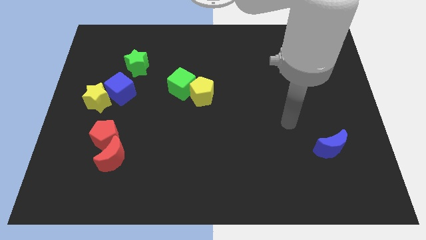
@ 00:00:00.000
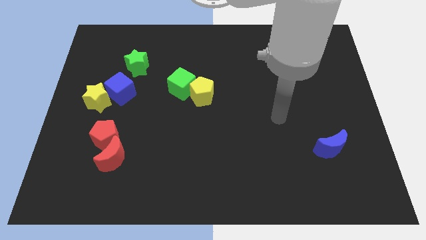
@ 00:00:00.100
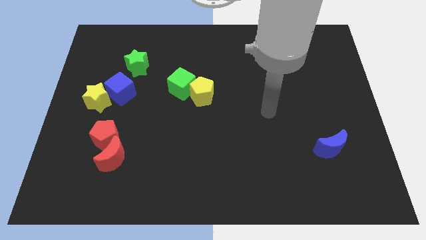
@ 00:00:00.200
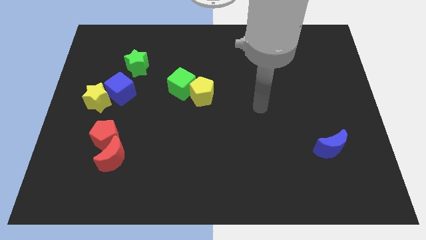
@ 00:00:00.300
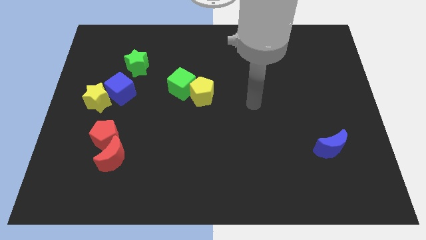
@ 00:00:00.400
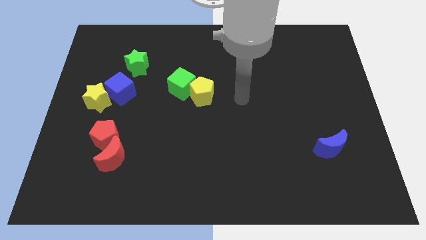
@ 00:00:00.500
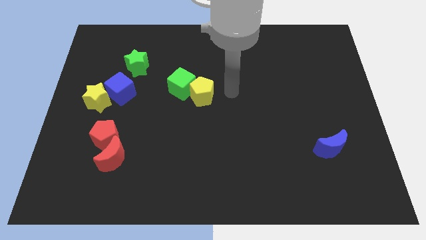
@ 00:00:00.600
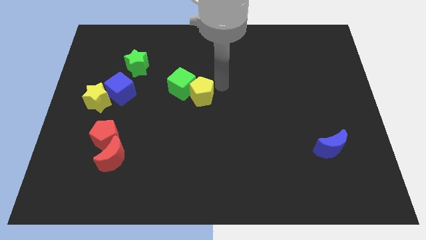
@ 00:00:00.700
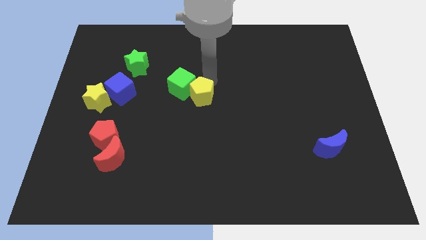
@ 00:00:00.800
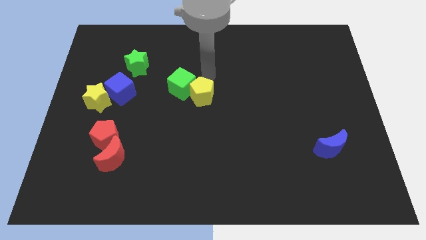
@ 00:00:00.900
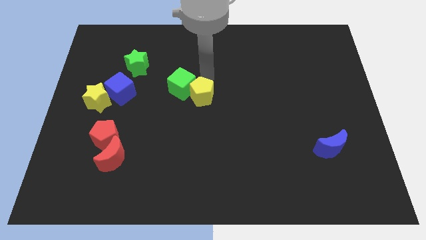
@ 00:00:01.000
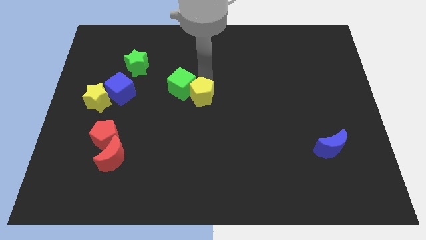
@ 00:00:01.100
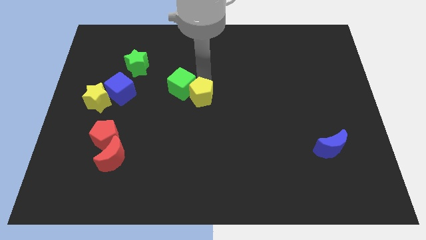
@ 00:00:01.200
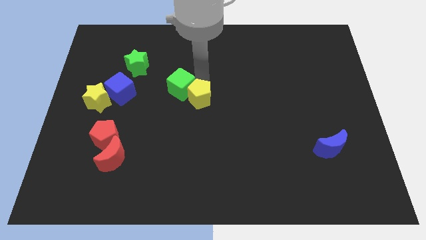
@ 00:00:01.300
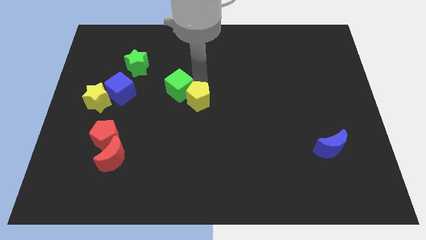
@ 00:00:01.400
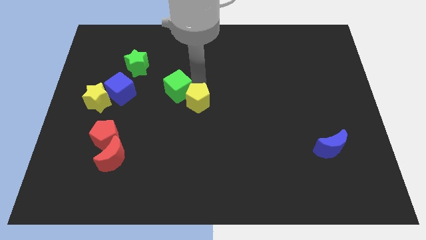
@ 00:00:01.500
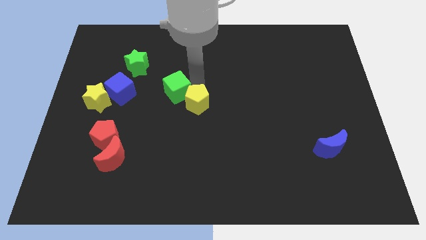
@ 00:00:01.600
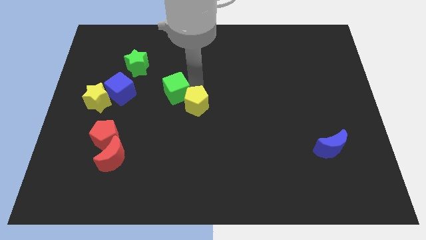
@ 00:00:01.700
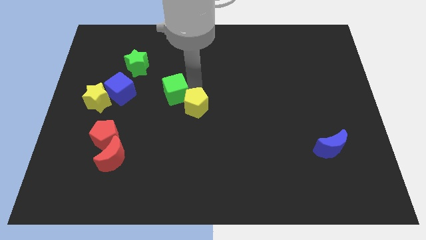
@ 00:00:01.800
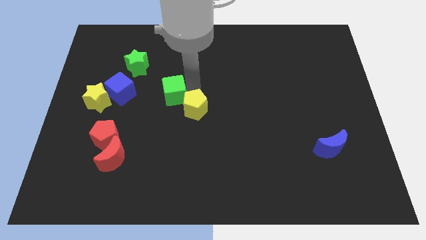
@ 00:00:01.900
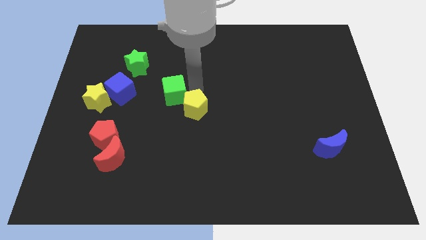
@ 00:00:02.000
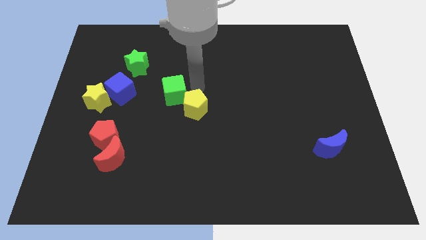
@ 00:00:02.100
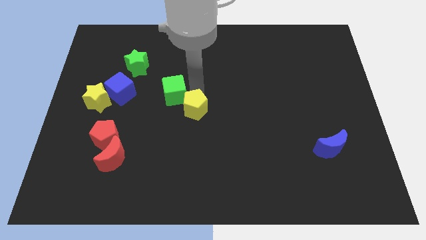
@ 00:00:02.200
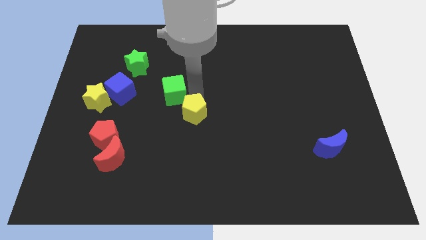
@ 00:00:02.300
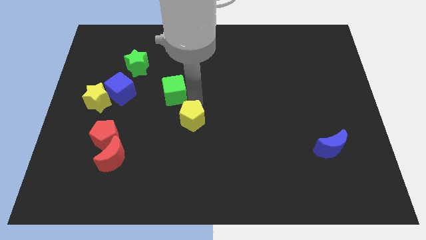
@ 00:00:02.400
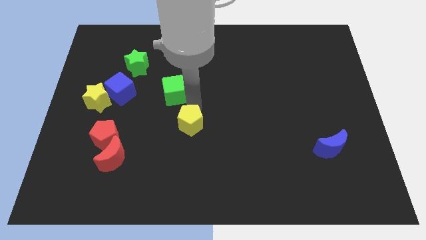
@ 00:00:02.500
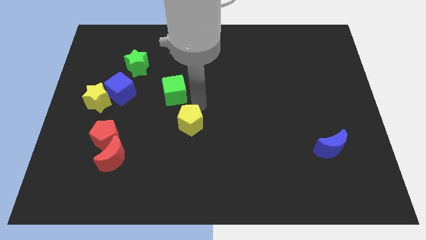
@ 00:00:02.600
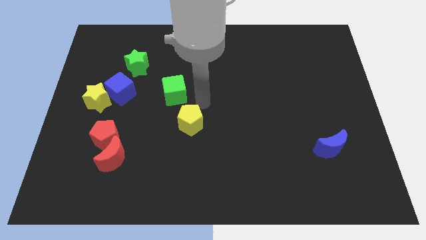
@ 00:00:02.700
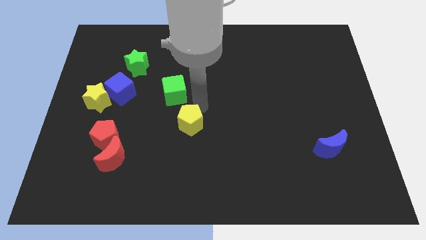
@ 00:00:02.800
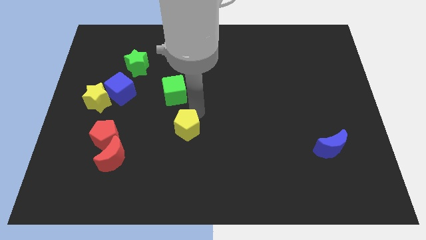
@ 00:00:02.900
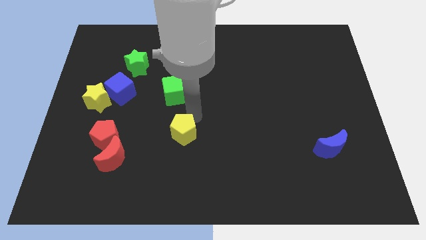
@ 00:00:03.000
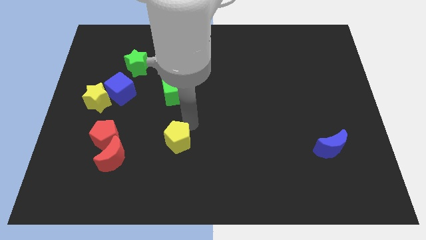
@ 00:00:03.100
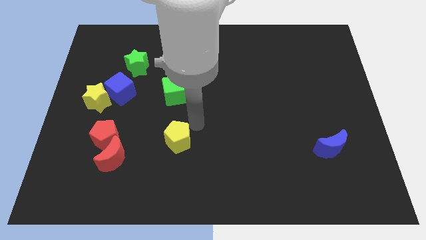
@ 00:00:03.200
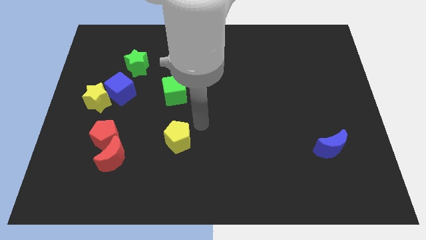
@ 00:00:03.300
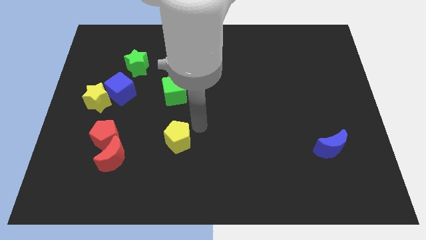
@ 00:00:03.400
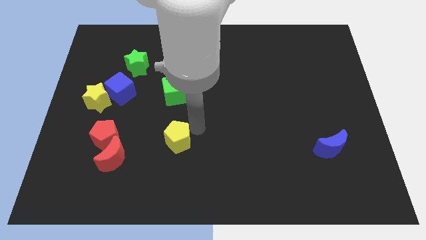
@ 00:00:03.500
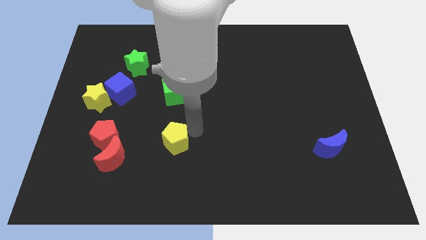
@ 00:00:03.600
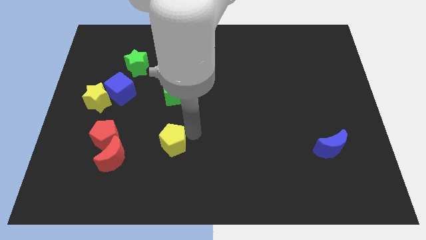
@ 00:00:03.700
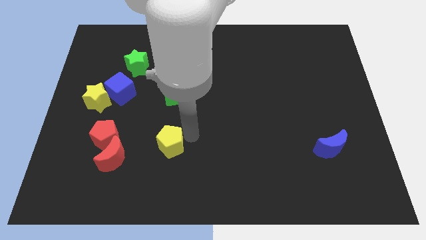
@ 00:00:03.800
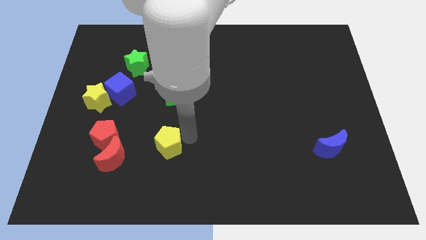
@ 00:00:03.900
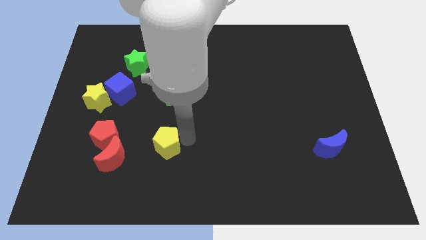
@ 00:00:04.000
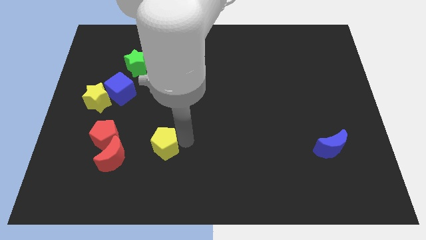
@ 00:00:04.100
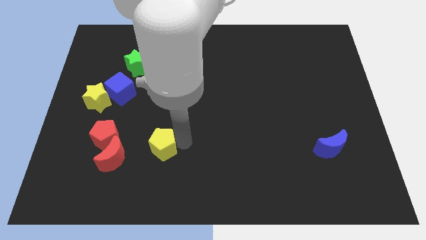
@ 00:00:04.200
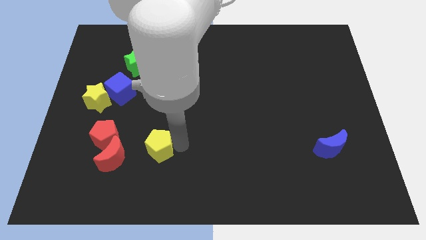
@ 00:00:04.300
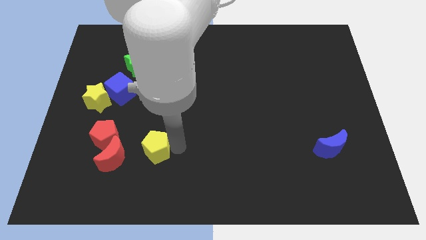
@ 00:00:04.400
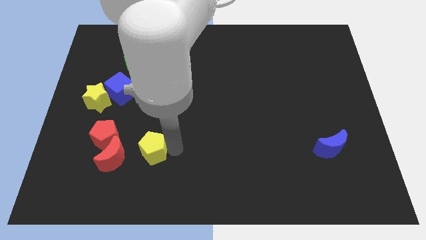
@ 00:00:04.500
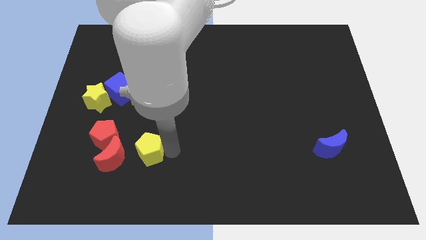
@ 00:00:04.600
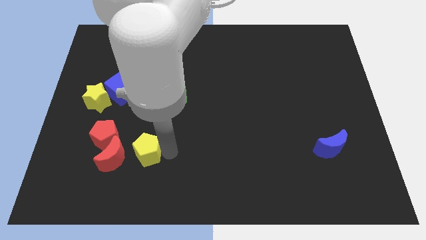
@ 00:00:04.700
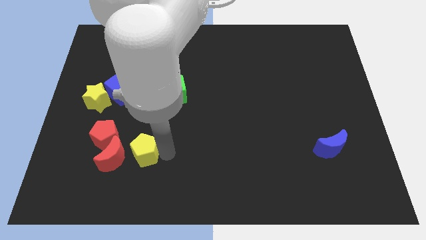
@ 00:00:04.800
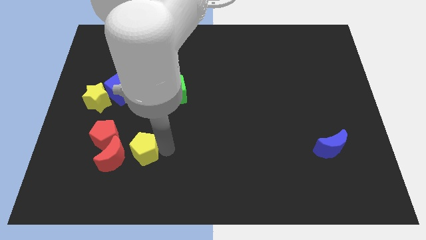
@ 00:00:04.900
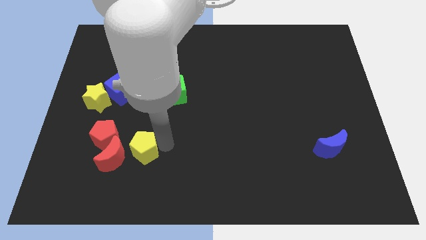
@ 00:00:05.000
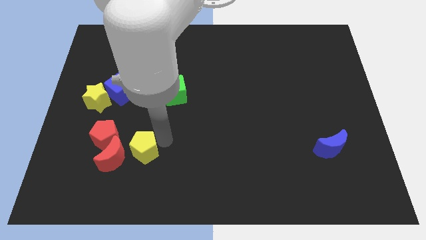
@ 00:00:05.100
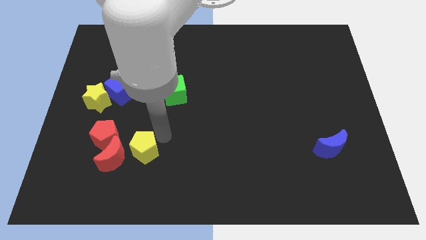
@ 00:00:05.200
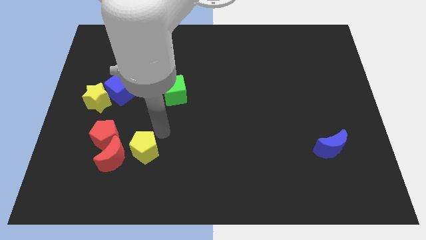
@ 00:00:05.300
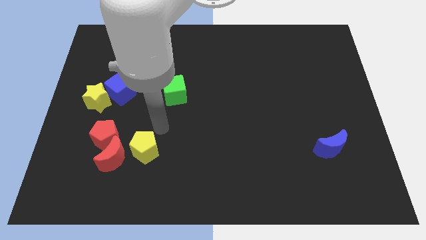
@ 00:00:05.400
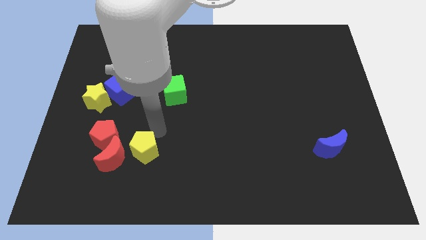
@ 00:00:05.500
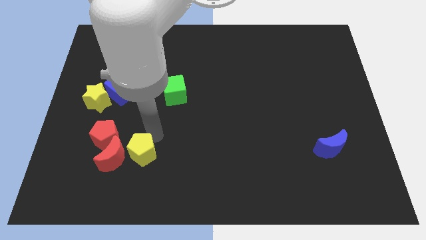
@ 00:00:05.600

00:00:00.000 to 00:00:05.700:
push the yellow pentagon down and left

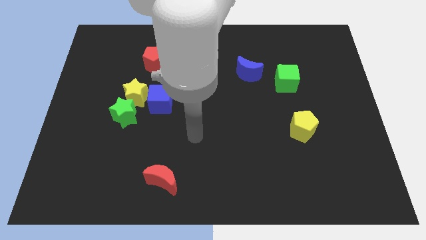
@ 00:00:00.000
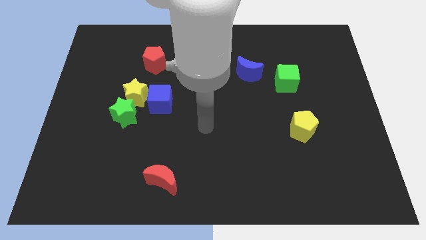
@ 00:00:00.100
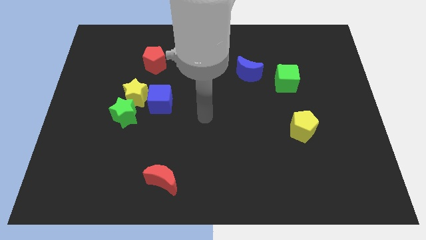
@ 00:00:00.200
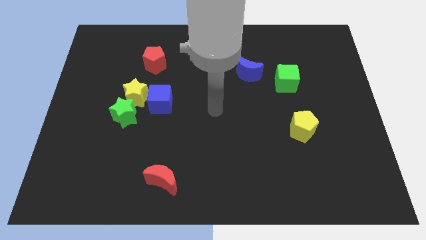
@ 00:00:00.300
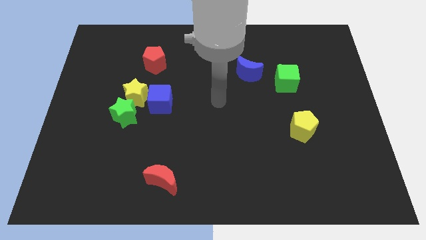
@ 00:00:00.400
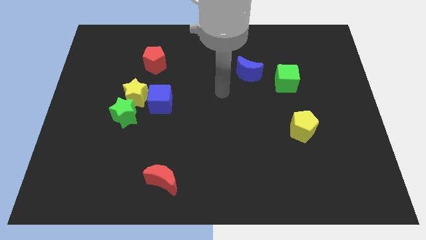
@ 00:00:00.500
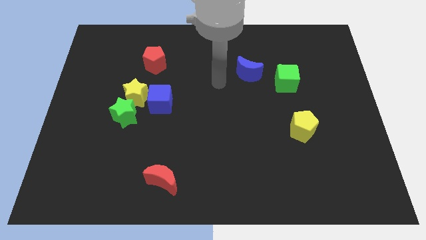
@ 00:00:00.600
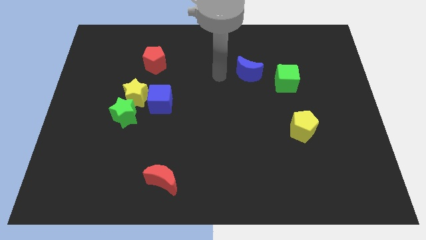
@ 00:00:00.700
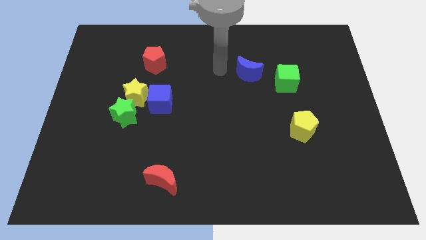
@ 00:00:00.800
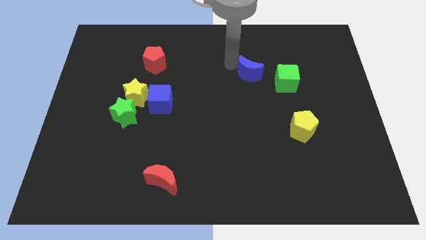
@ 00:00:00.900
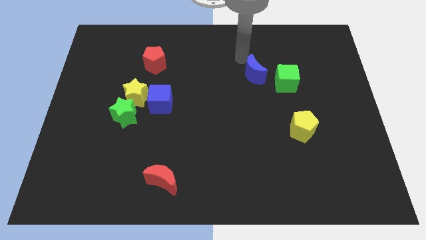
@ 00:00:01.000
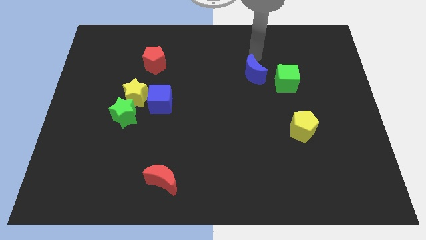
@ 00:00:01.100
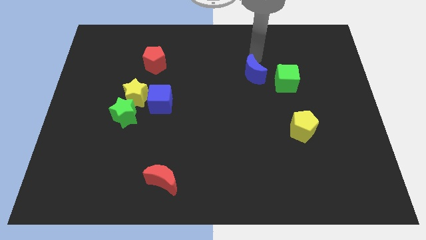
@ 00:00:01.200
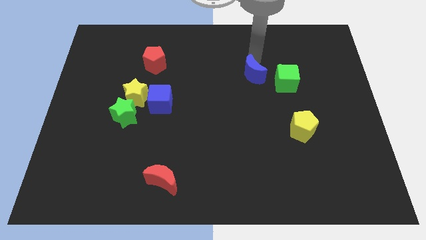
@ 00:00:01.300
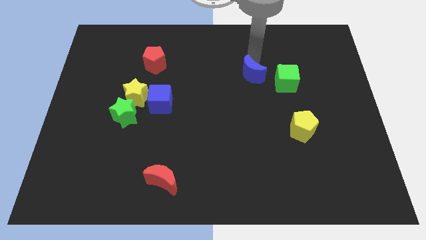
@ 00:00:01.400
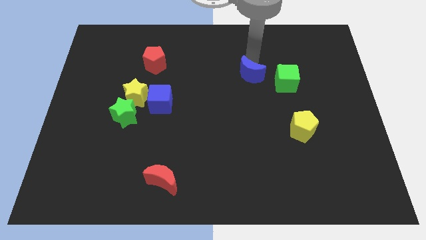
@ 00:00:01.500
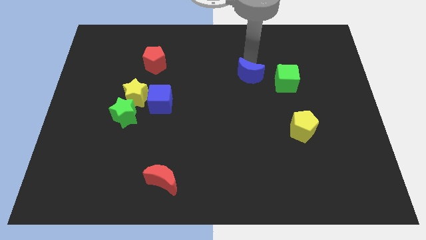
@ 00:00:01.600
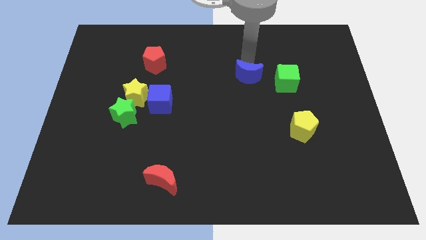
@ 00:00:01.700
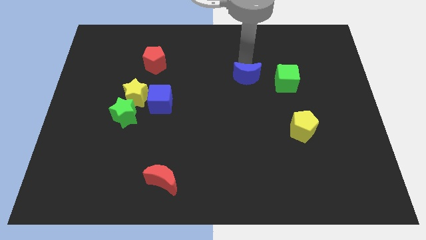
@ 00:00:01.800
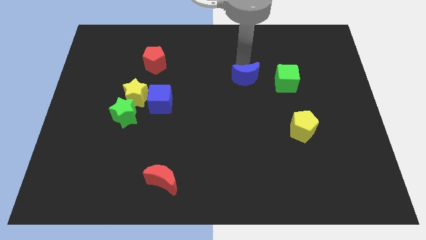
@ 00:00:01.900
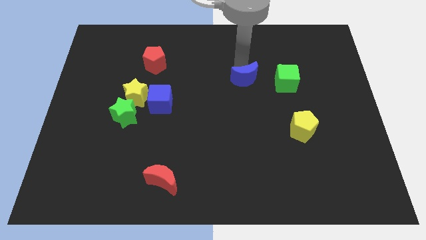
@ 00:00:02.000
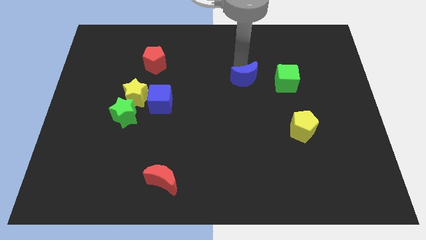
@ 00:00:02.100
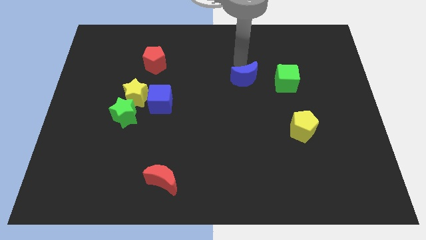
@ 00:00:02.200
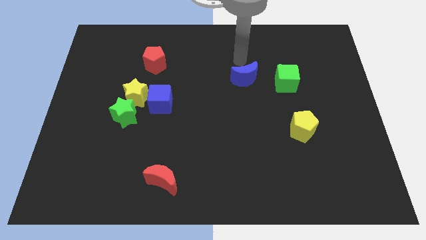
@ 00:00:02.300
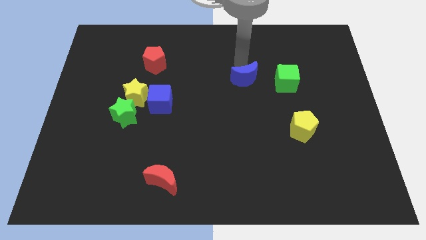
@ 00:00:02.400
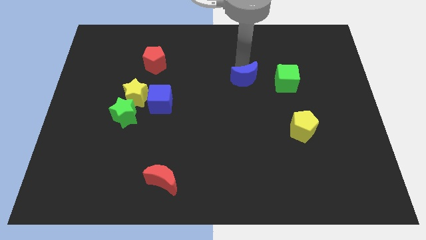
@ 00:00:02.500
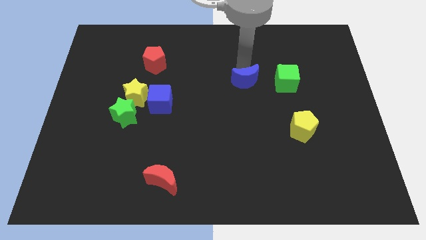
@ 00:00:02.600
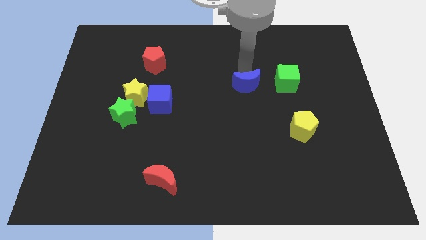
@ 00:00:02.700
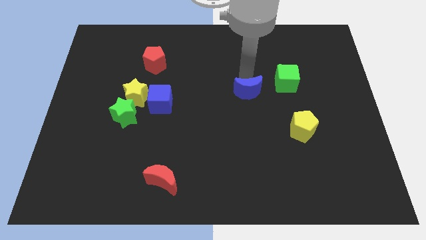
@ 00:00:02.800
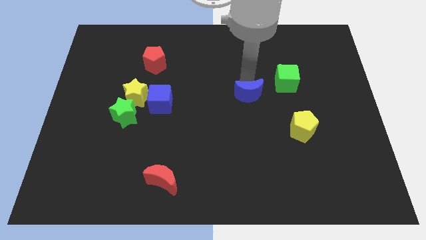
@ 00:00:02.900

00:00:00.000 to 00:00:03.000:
slide the blue moon a little downwards
